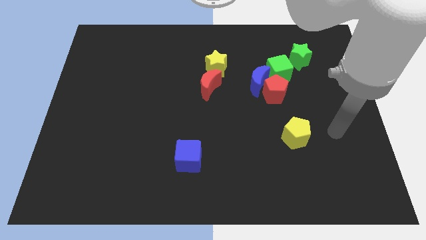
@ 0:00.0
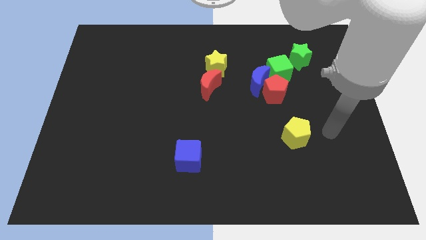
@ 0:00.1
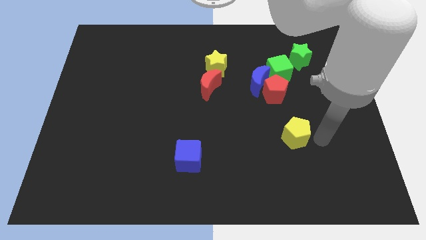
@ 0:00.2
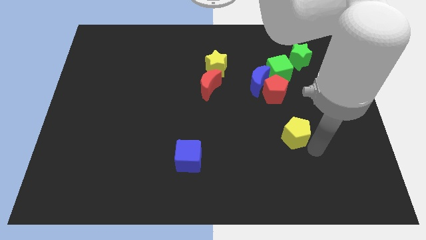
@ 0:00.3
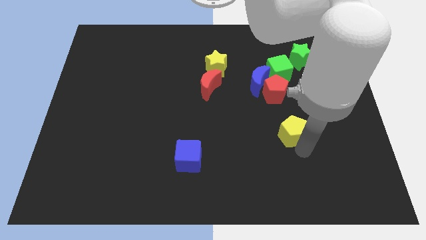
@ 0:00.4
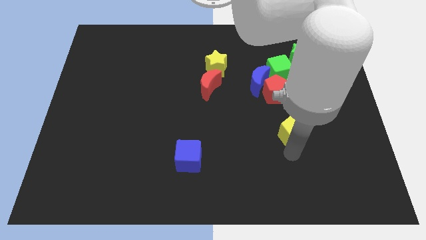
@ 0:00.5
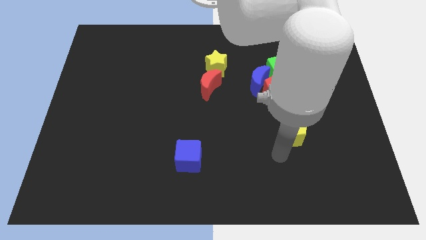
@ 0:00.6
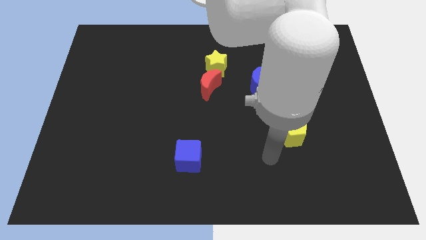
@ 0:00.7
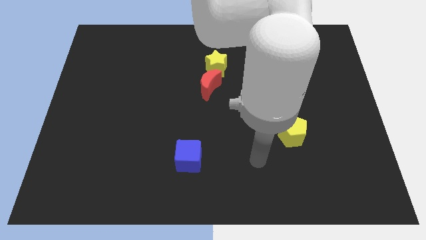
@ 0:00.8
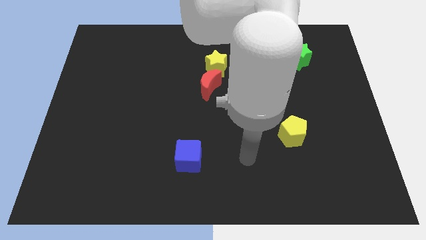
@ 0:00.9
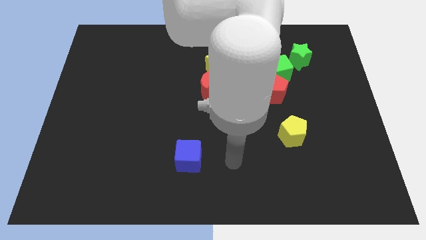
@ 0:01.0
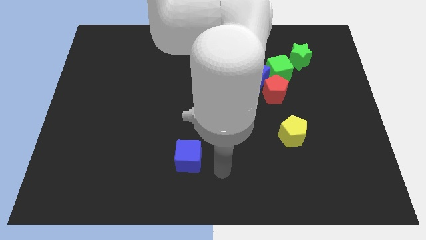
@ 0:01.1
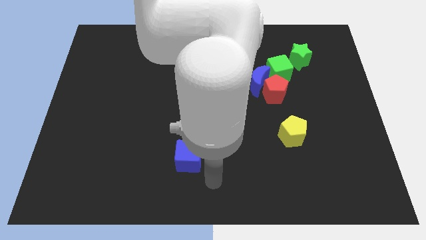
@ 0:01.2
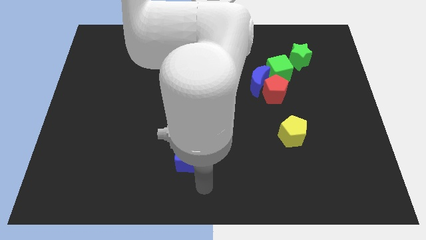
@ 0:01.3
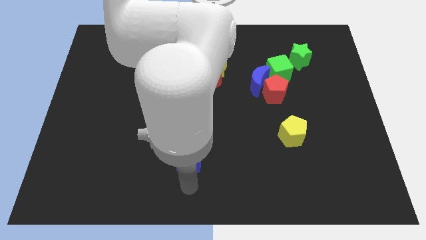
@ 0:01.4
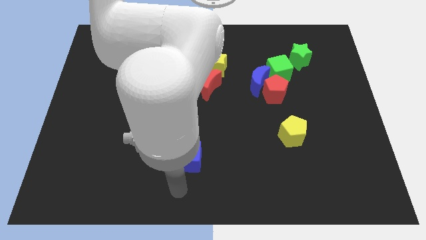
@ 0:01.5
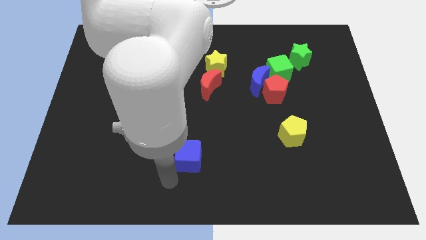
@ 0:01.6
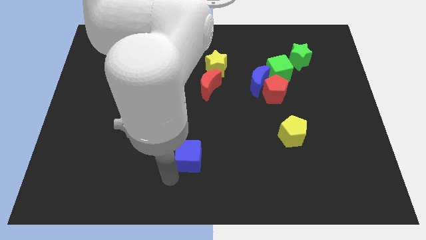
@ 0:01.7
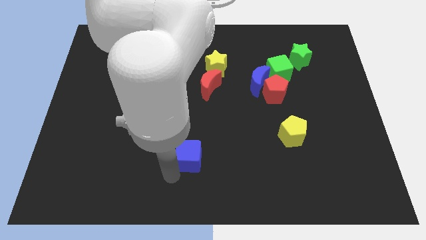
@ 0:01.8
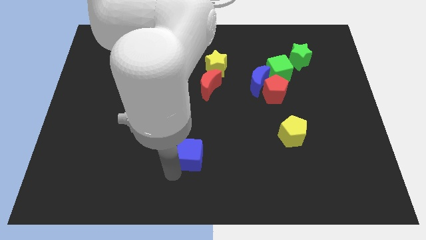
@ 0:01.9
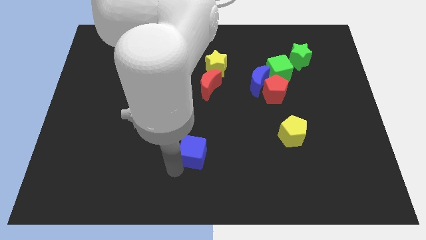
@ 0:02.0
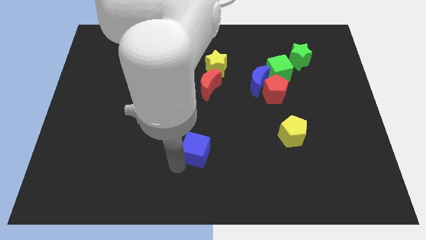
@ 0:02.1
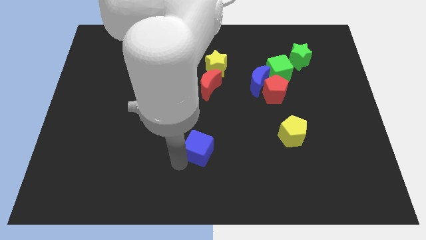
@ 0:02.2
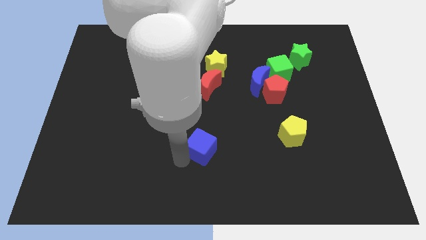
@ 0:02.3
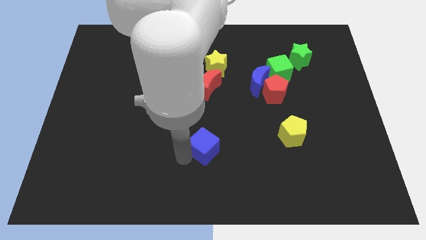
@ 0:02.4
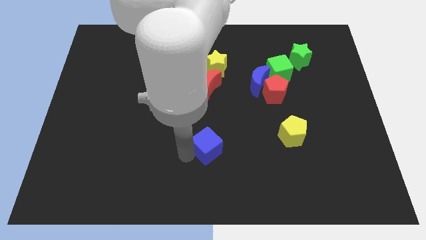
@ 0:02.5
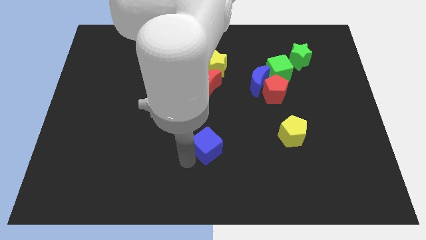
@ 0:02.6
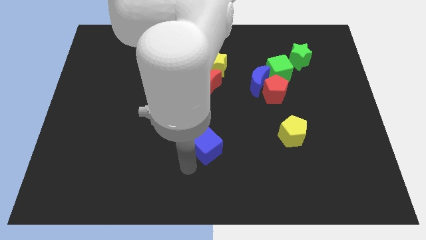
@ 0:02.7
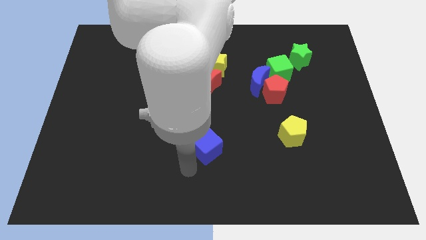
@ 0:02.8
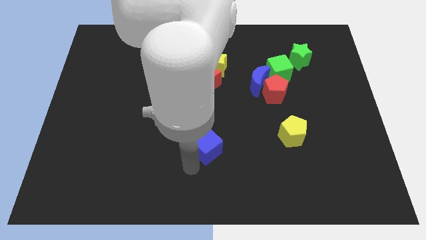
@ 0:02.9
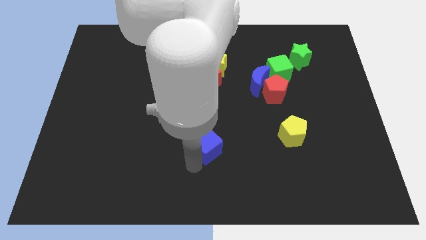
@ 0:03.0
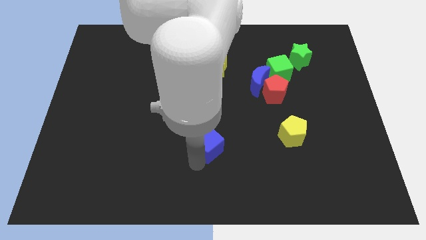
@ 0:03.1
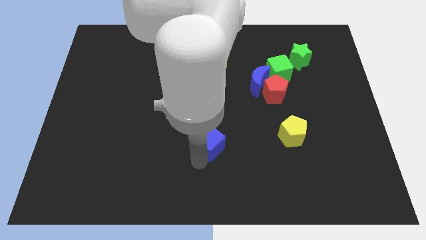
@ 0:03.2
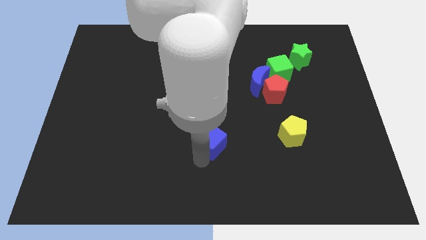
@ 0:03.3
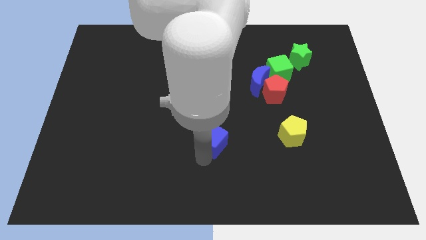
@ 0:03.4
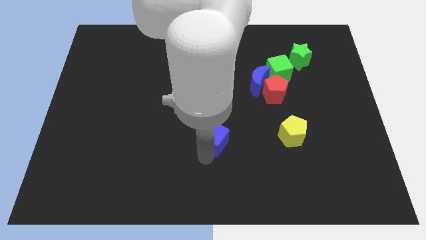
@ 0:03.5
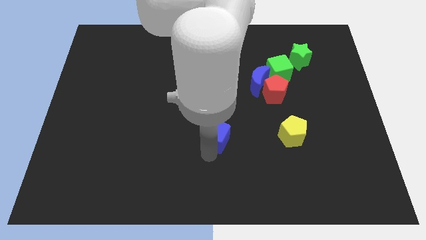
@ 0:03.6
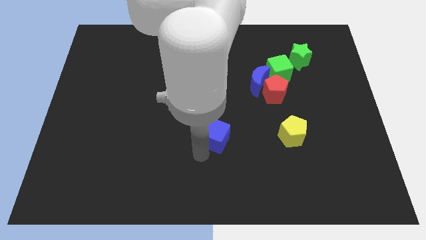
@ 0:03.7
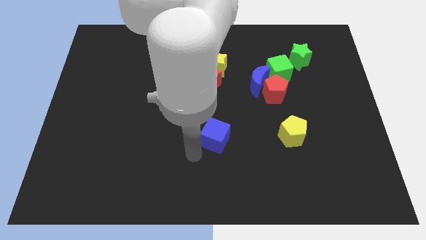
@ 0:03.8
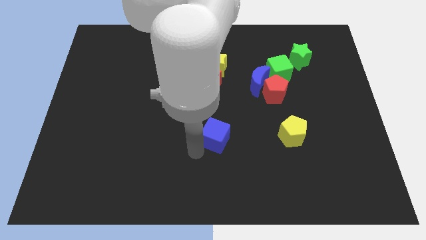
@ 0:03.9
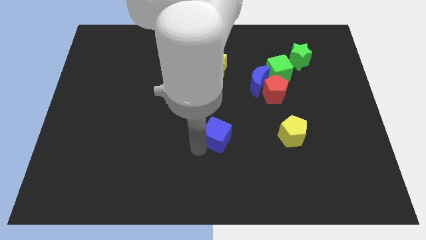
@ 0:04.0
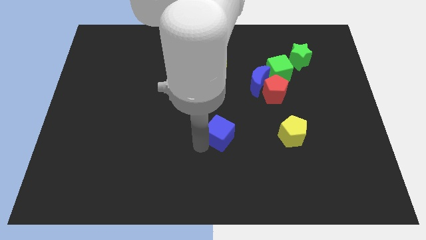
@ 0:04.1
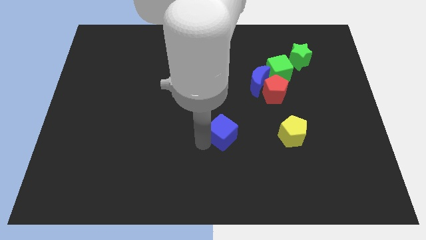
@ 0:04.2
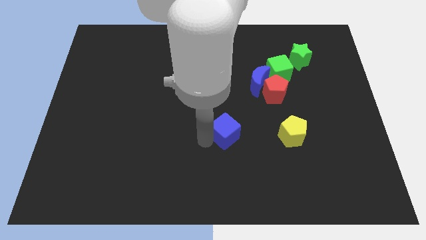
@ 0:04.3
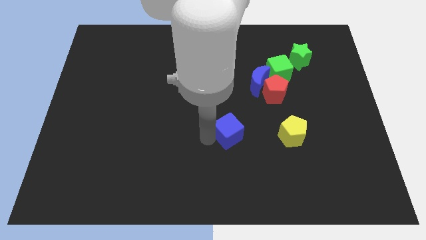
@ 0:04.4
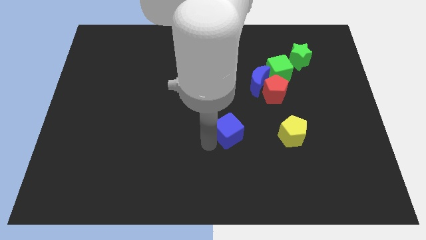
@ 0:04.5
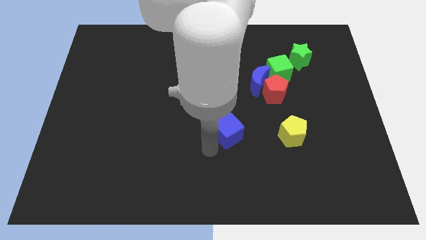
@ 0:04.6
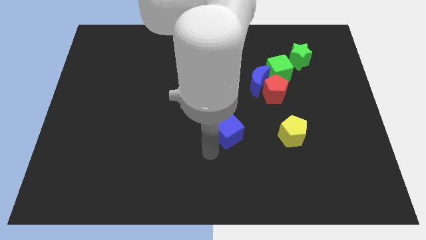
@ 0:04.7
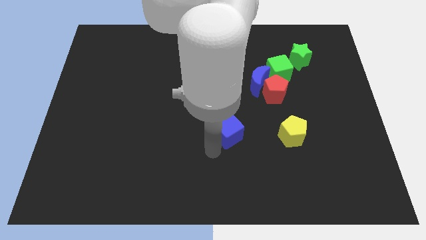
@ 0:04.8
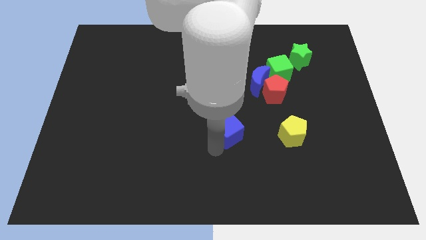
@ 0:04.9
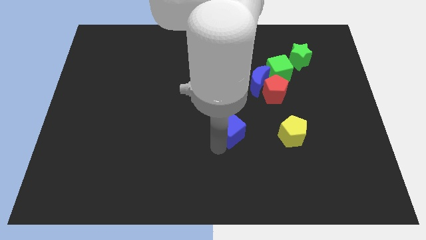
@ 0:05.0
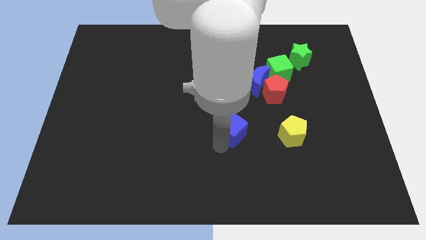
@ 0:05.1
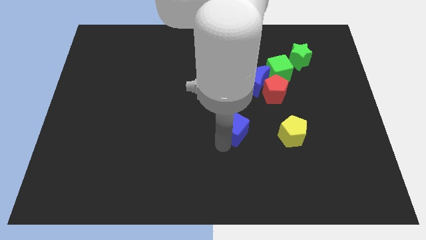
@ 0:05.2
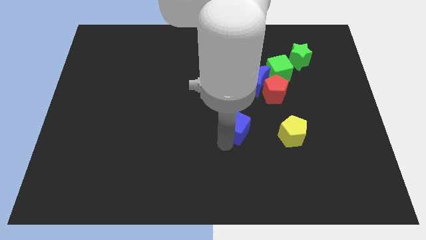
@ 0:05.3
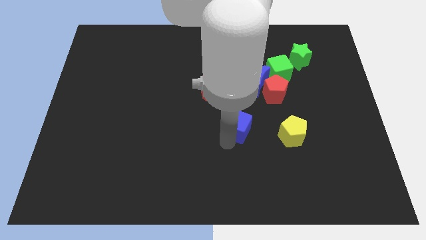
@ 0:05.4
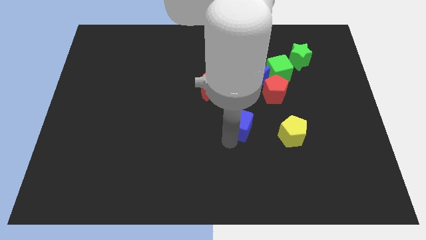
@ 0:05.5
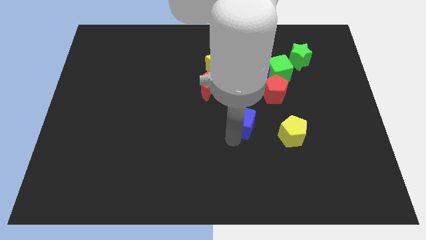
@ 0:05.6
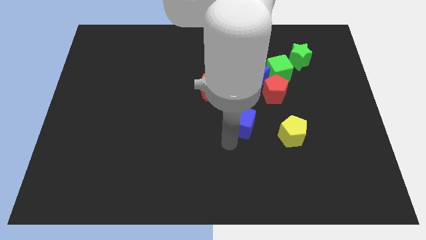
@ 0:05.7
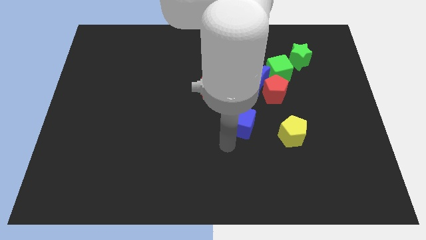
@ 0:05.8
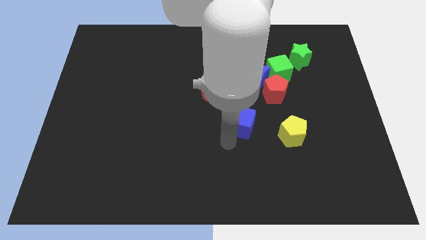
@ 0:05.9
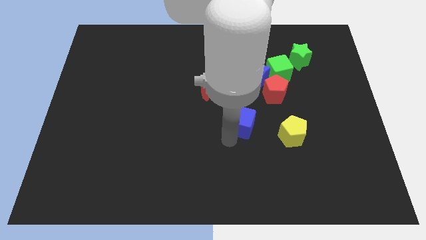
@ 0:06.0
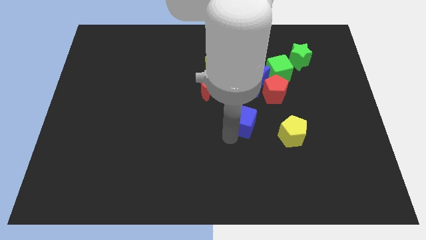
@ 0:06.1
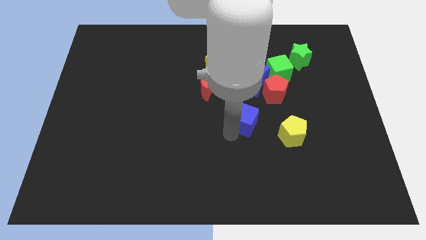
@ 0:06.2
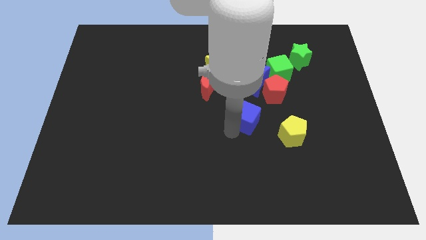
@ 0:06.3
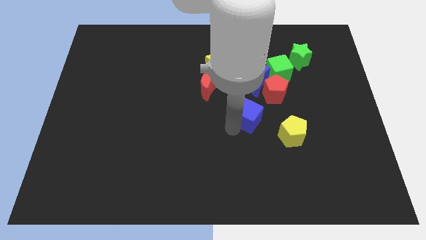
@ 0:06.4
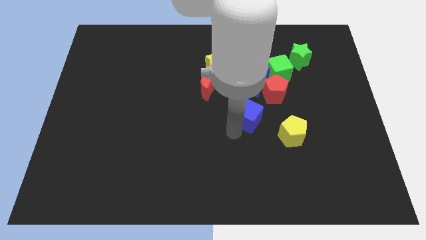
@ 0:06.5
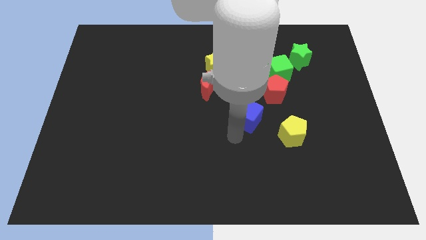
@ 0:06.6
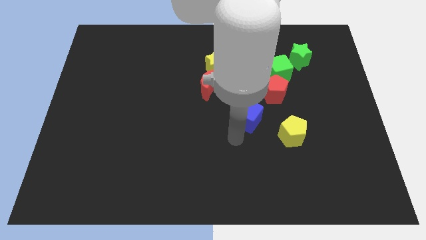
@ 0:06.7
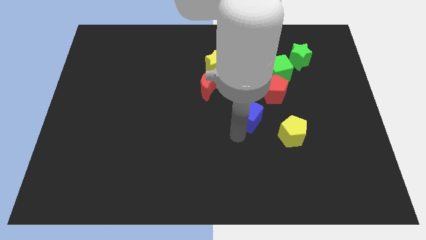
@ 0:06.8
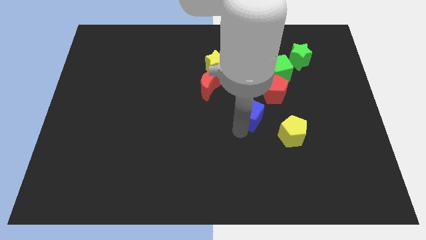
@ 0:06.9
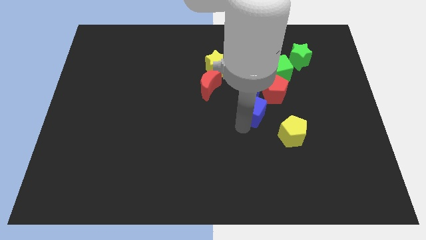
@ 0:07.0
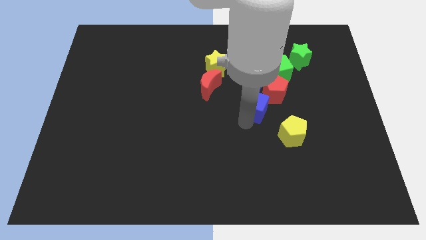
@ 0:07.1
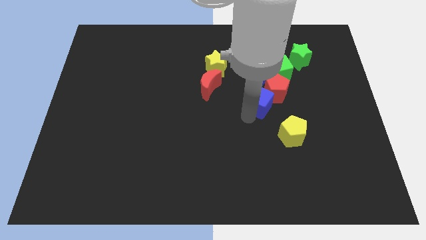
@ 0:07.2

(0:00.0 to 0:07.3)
put the blue cube close to the red pentagon

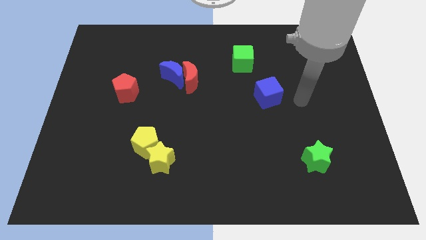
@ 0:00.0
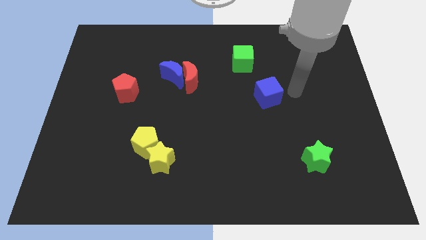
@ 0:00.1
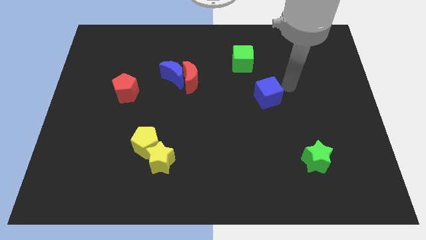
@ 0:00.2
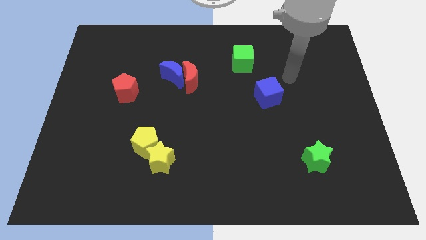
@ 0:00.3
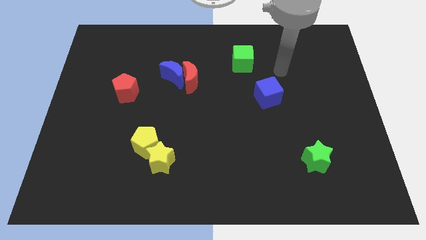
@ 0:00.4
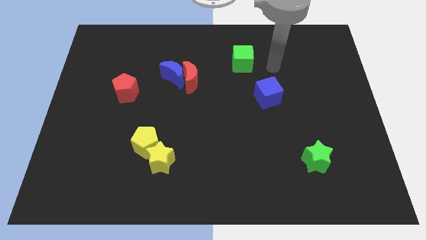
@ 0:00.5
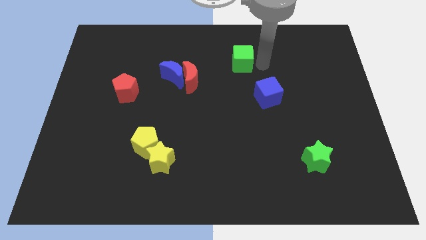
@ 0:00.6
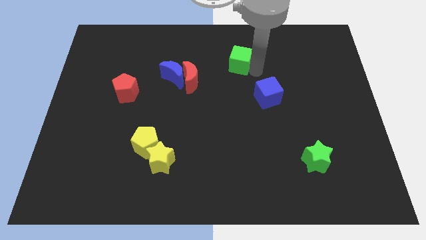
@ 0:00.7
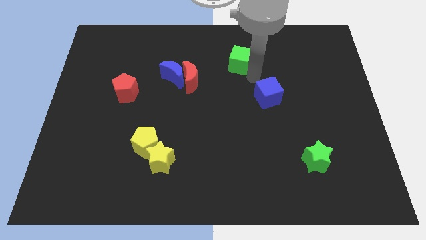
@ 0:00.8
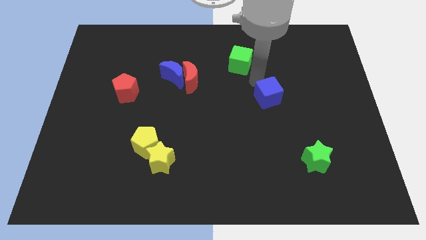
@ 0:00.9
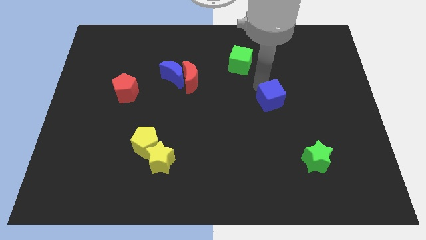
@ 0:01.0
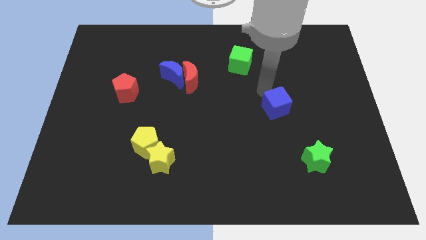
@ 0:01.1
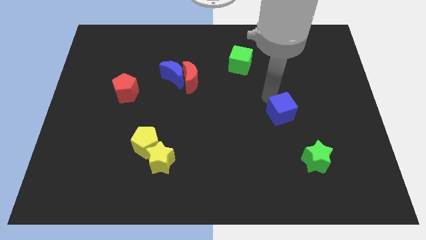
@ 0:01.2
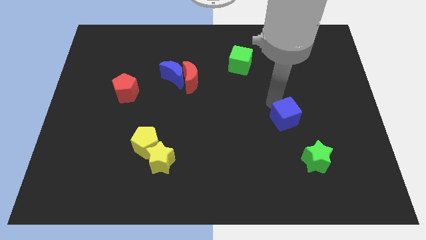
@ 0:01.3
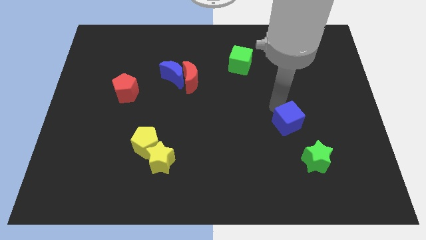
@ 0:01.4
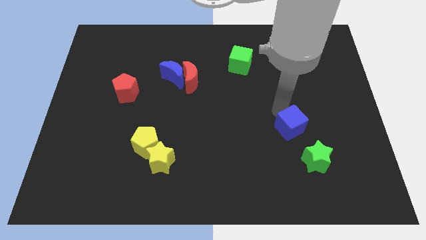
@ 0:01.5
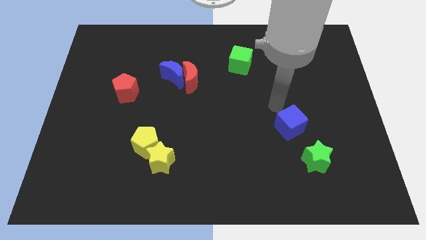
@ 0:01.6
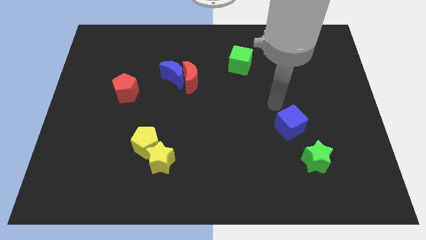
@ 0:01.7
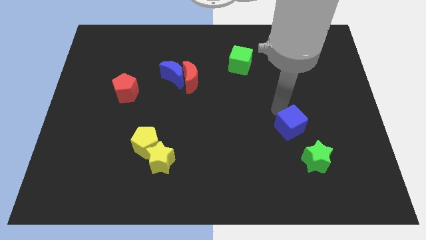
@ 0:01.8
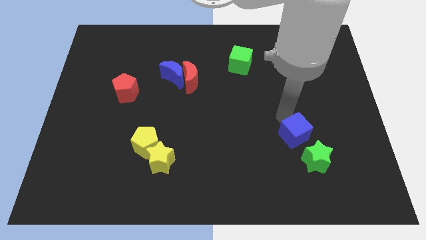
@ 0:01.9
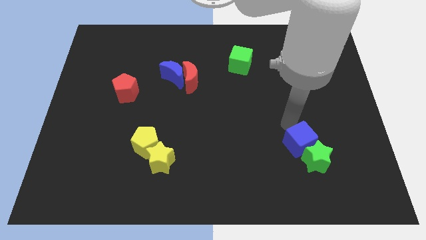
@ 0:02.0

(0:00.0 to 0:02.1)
put the blue cube close to the green star
